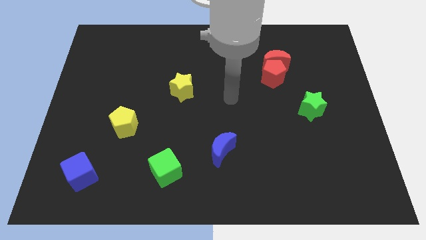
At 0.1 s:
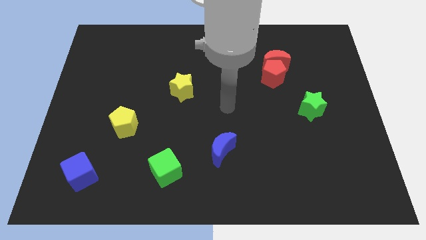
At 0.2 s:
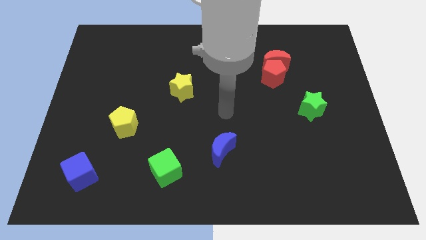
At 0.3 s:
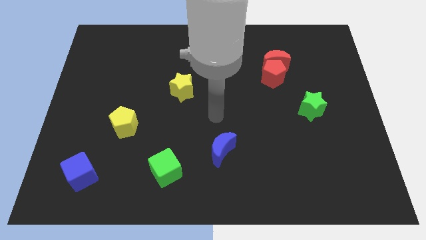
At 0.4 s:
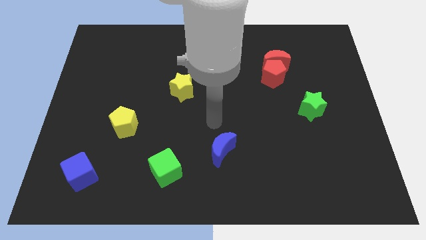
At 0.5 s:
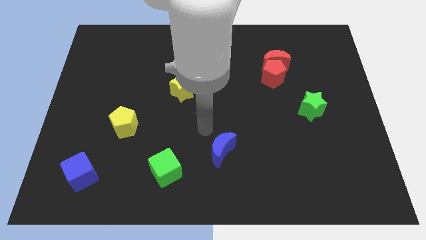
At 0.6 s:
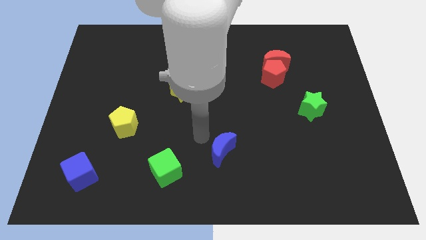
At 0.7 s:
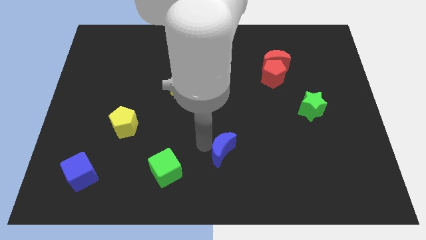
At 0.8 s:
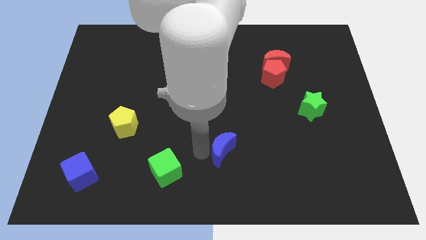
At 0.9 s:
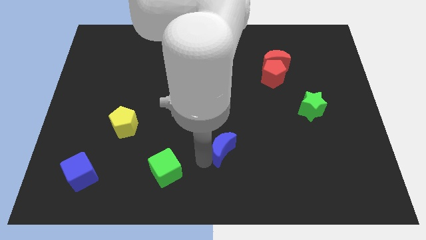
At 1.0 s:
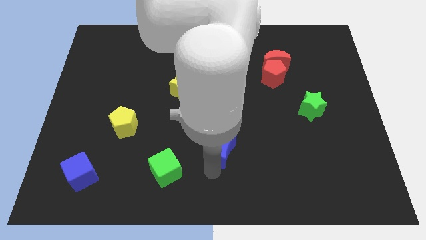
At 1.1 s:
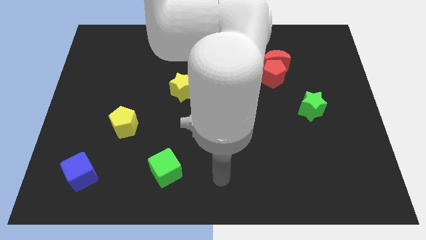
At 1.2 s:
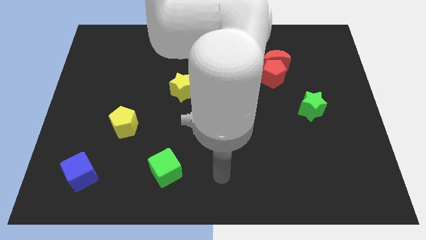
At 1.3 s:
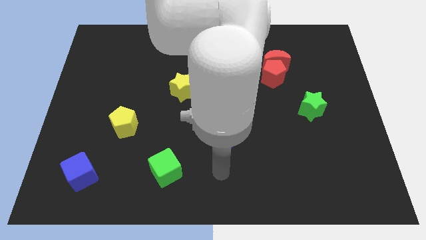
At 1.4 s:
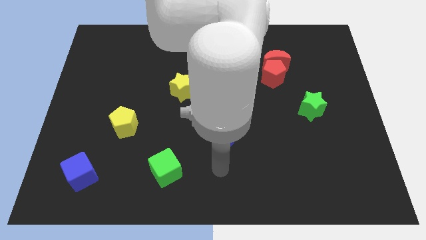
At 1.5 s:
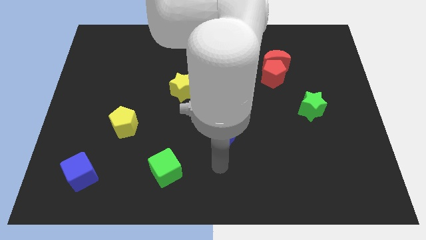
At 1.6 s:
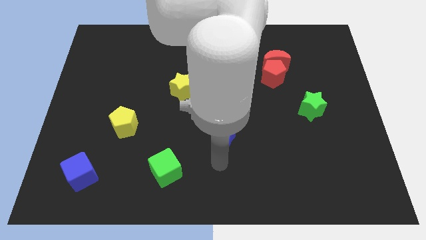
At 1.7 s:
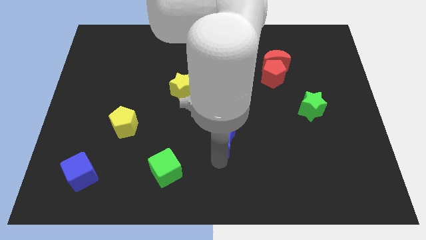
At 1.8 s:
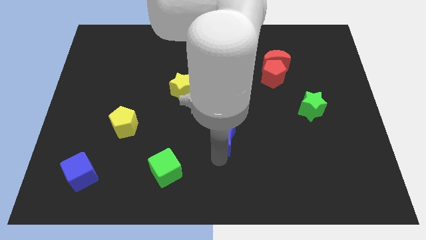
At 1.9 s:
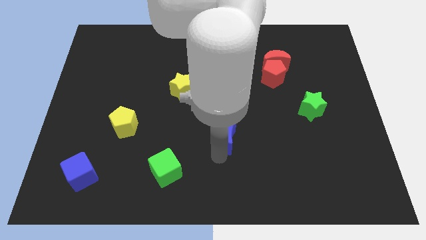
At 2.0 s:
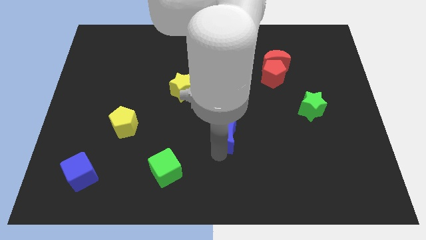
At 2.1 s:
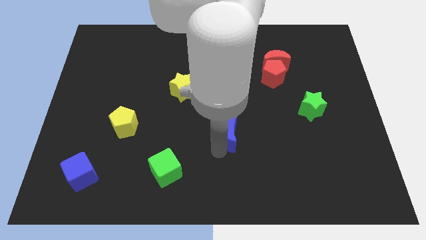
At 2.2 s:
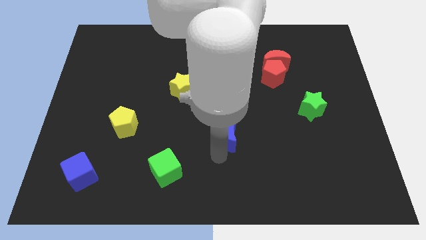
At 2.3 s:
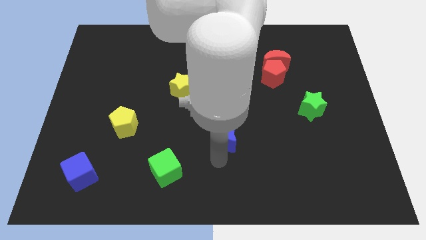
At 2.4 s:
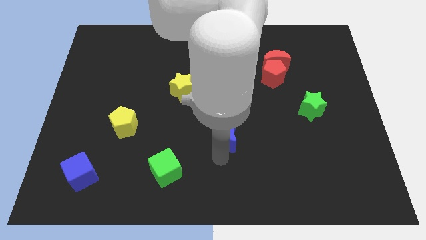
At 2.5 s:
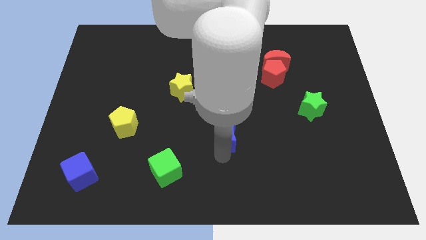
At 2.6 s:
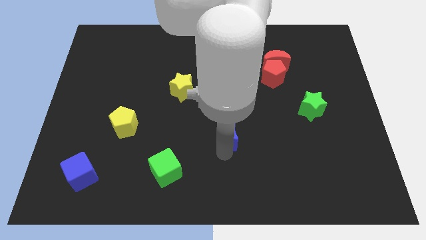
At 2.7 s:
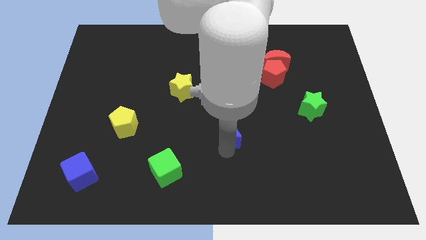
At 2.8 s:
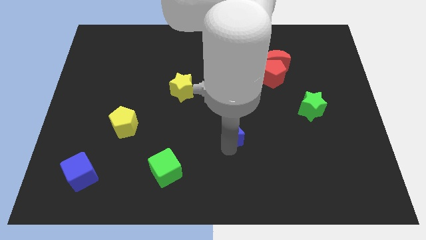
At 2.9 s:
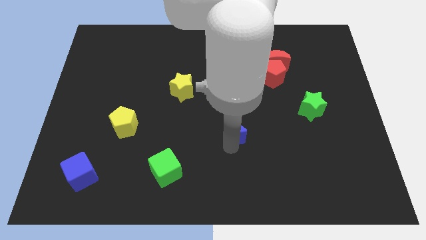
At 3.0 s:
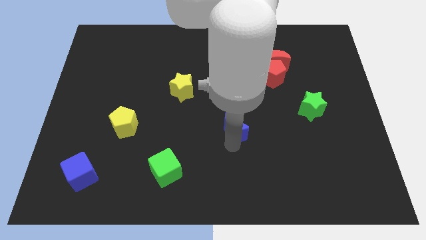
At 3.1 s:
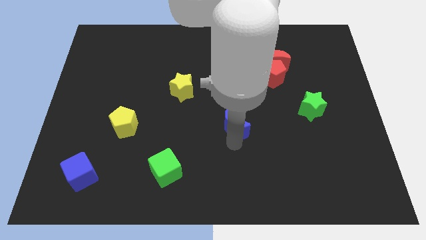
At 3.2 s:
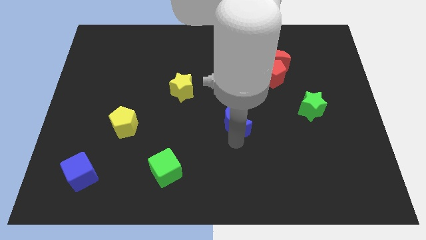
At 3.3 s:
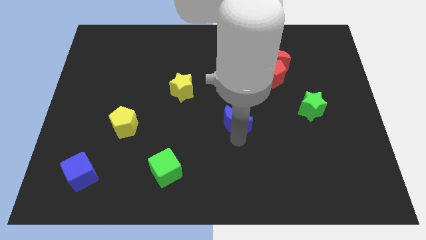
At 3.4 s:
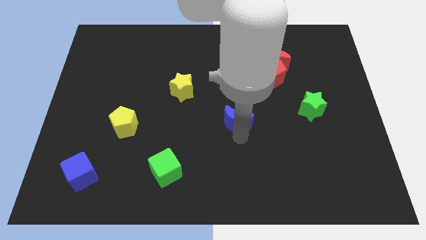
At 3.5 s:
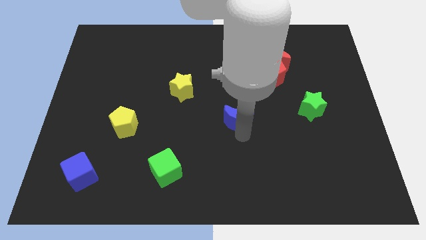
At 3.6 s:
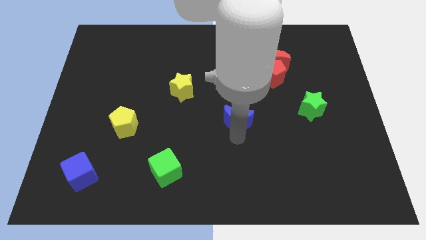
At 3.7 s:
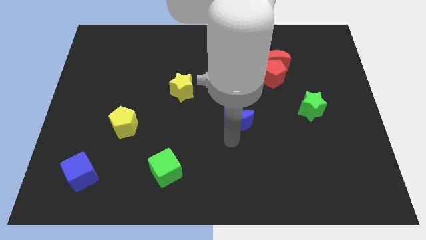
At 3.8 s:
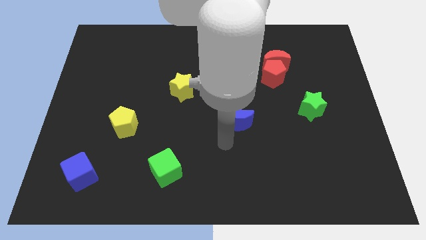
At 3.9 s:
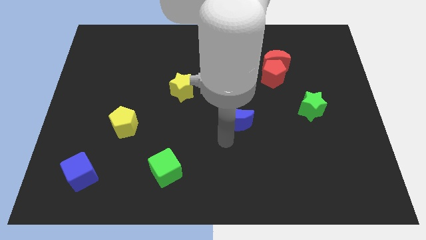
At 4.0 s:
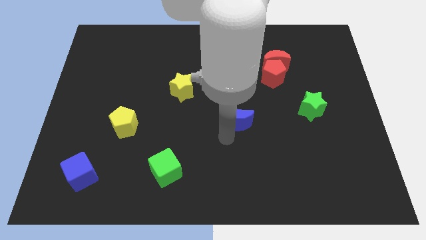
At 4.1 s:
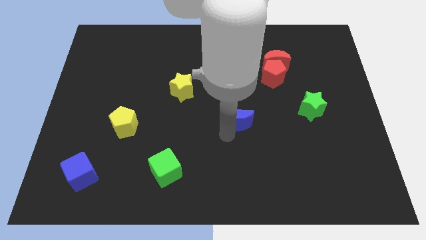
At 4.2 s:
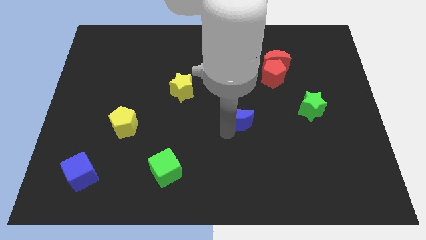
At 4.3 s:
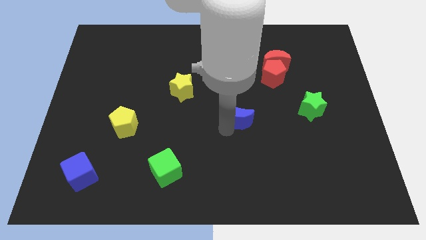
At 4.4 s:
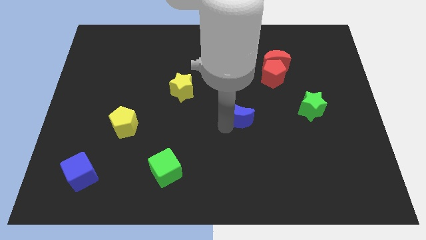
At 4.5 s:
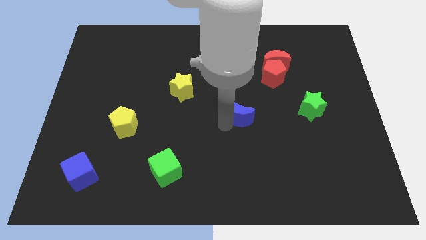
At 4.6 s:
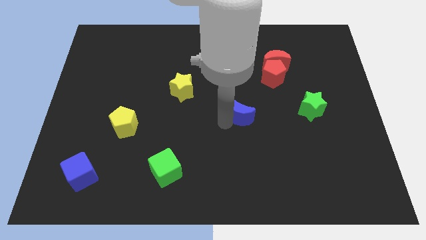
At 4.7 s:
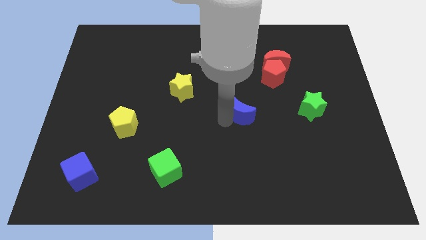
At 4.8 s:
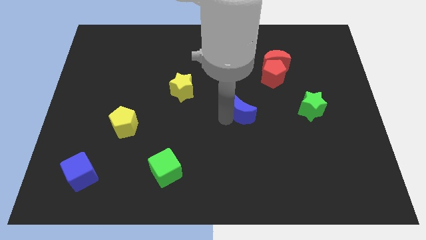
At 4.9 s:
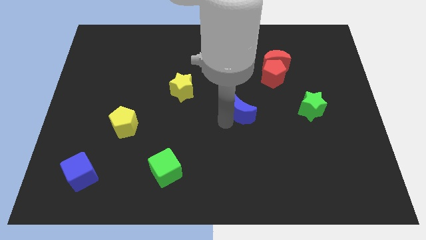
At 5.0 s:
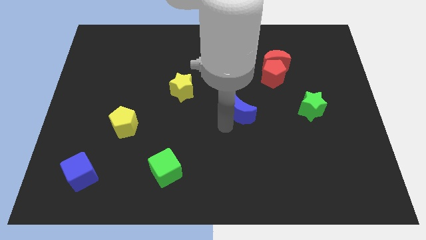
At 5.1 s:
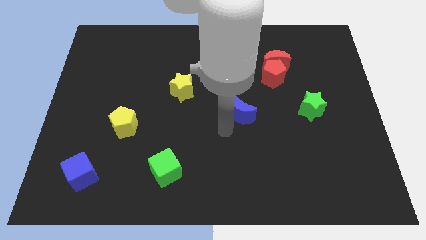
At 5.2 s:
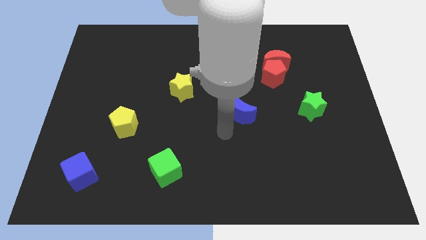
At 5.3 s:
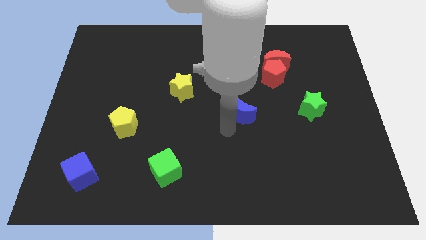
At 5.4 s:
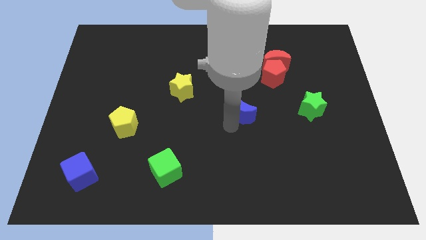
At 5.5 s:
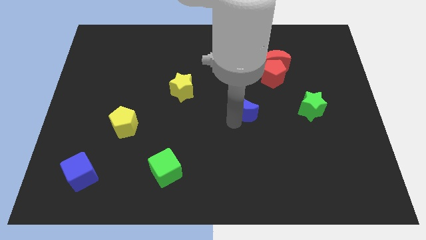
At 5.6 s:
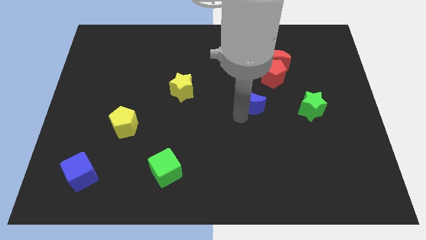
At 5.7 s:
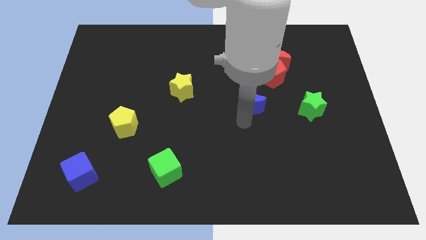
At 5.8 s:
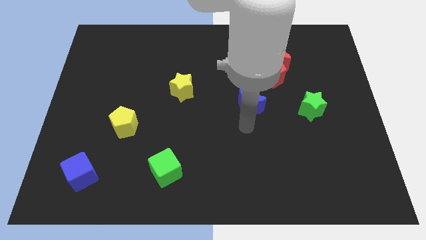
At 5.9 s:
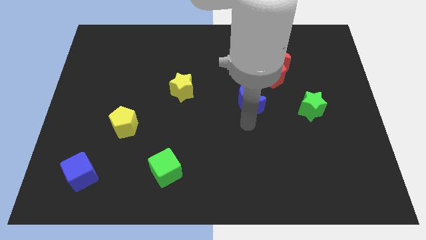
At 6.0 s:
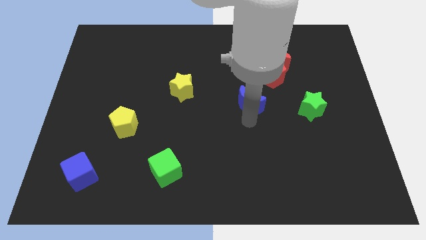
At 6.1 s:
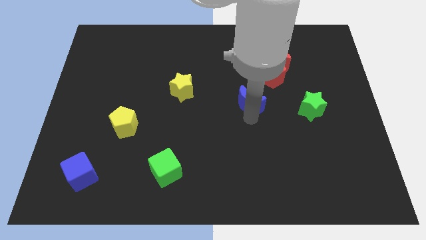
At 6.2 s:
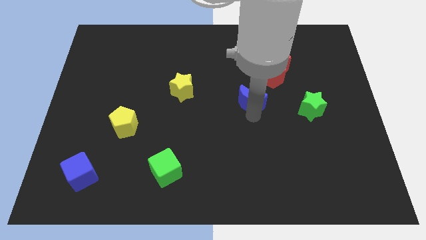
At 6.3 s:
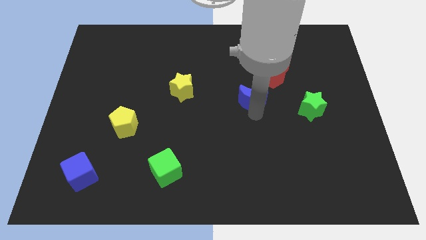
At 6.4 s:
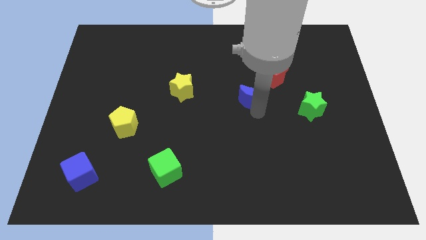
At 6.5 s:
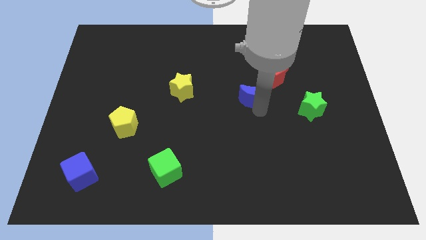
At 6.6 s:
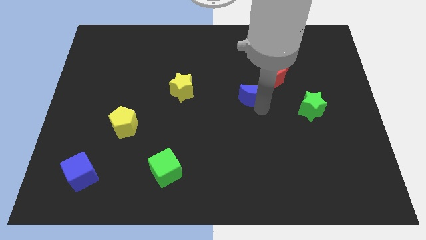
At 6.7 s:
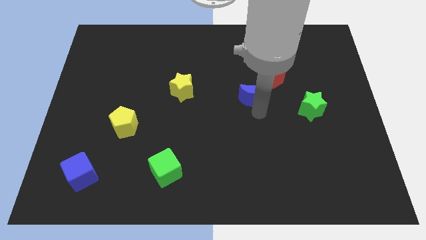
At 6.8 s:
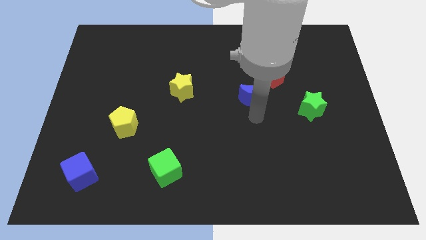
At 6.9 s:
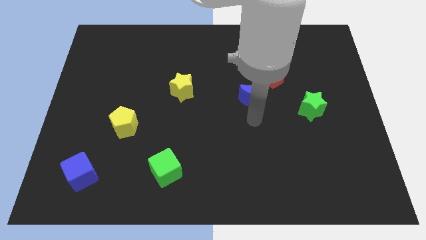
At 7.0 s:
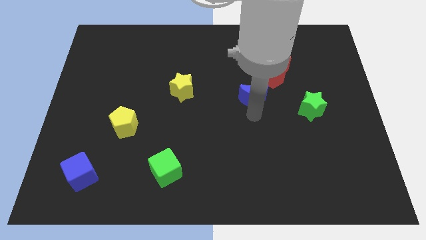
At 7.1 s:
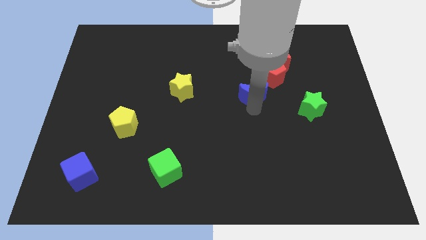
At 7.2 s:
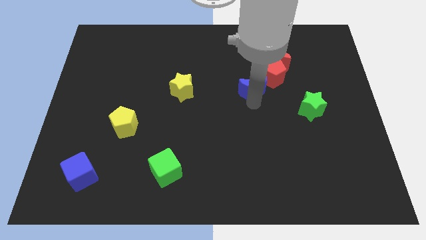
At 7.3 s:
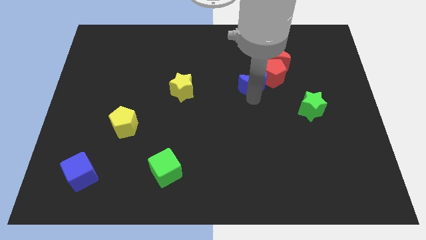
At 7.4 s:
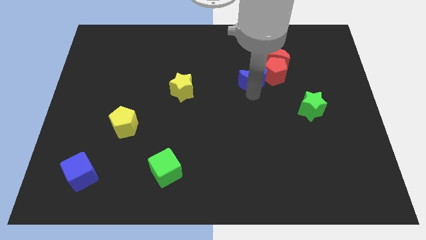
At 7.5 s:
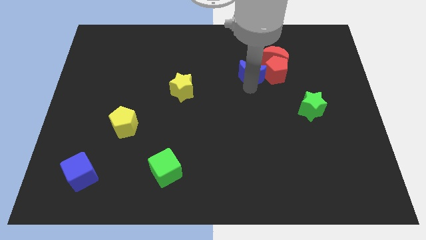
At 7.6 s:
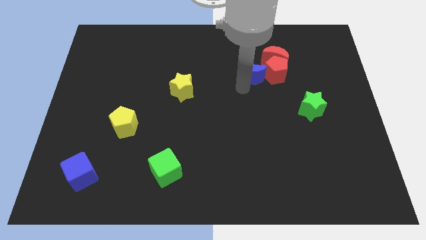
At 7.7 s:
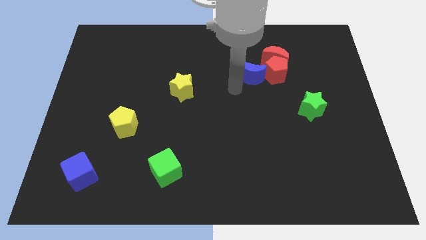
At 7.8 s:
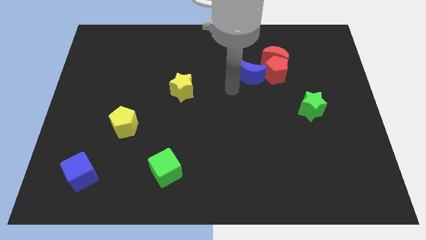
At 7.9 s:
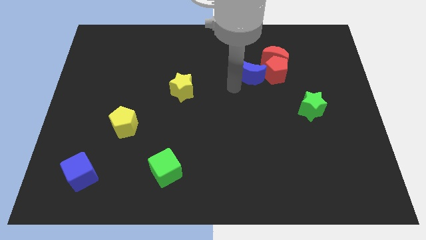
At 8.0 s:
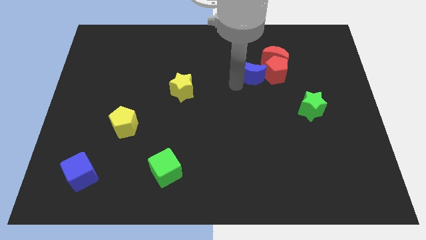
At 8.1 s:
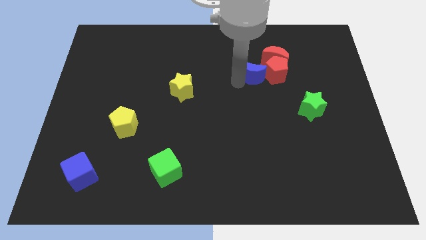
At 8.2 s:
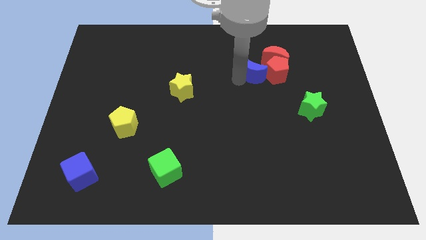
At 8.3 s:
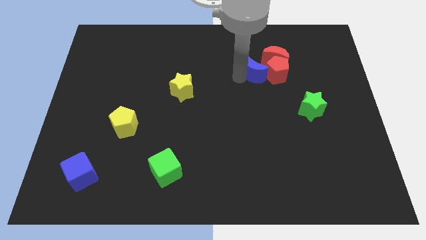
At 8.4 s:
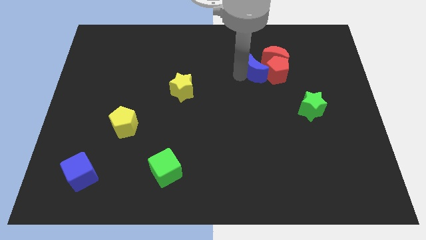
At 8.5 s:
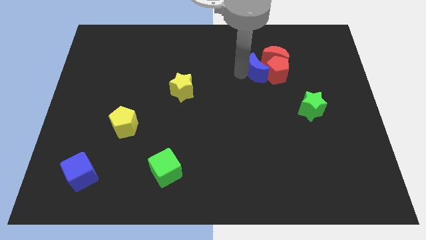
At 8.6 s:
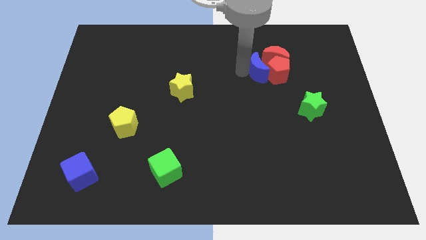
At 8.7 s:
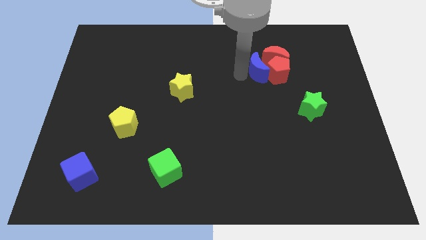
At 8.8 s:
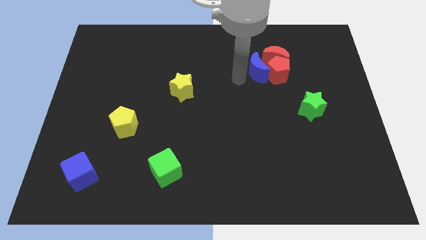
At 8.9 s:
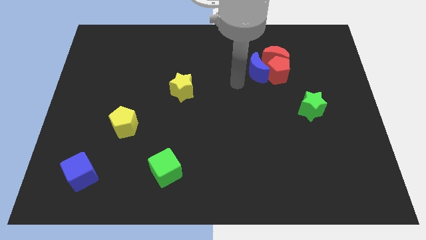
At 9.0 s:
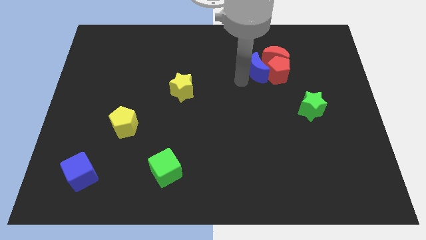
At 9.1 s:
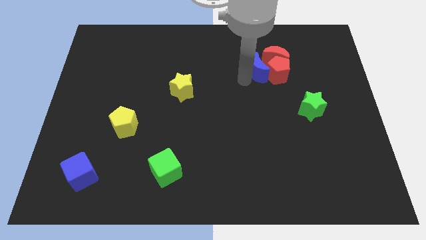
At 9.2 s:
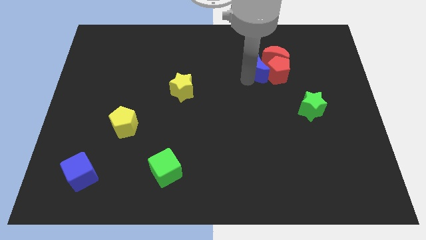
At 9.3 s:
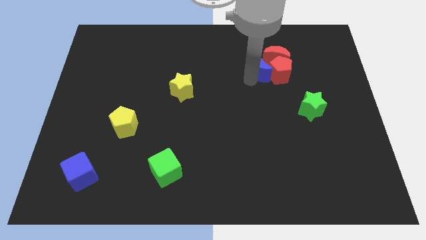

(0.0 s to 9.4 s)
move the blue moon towards the red moon
